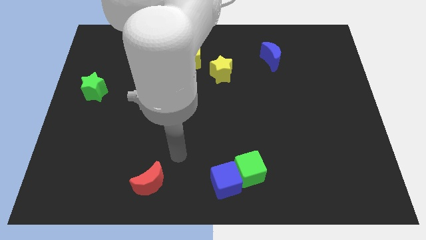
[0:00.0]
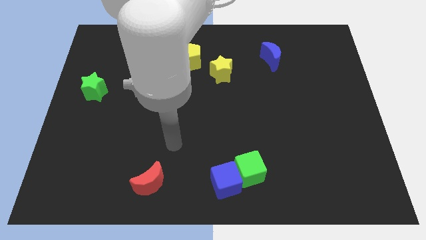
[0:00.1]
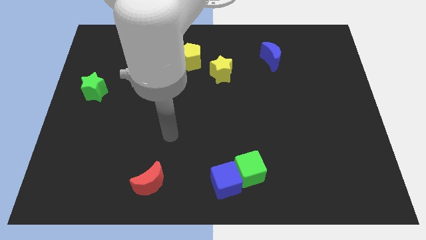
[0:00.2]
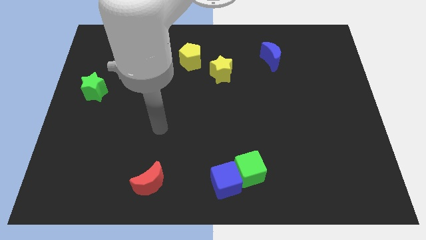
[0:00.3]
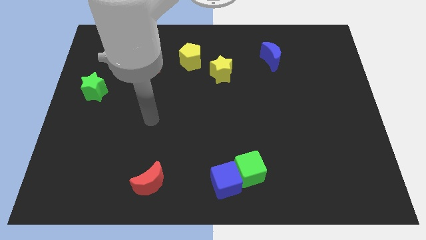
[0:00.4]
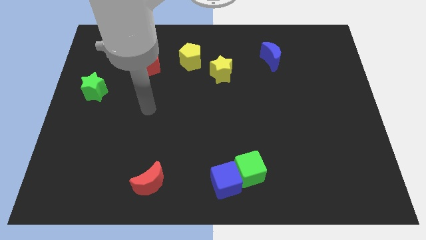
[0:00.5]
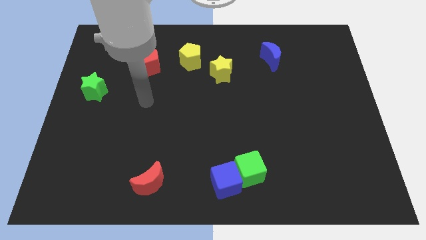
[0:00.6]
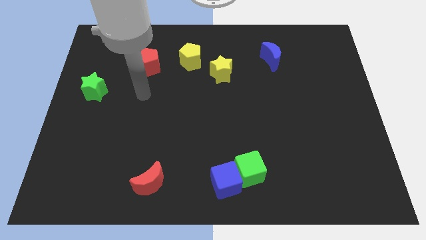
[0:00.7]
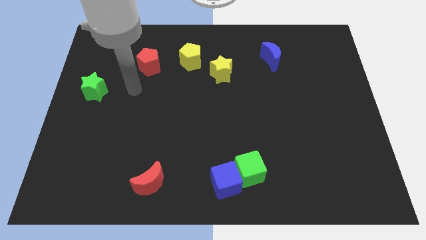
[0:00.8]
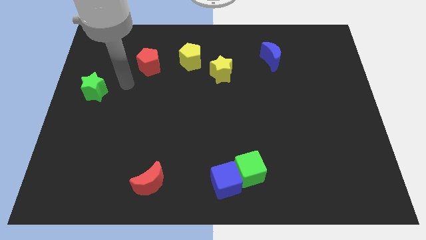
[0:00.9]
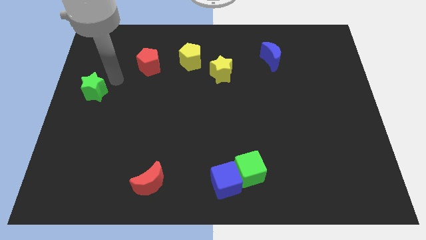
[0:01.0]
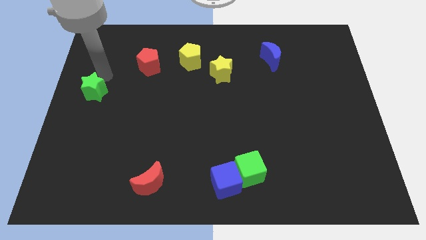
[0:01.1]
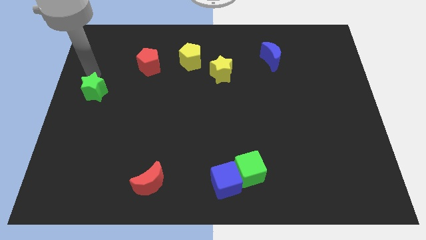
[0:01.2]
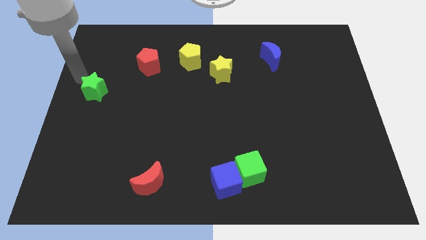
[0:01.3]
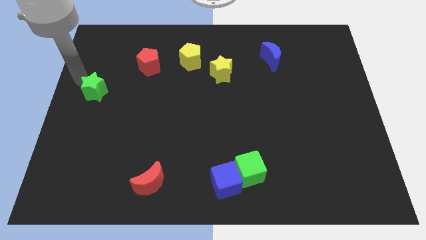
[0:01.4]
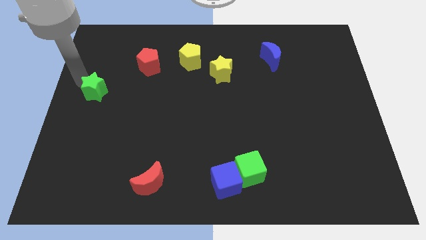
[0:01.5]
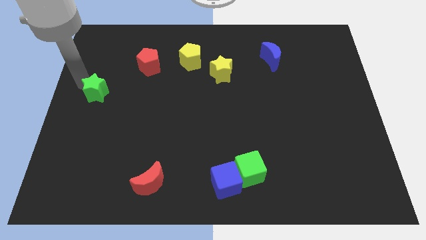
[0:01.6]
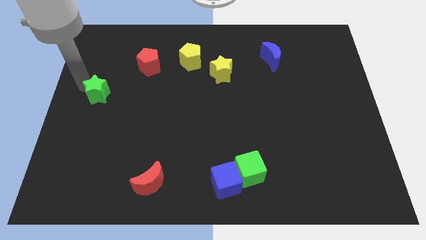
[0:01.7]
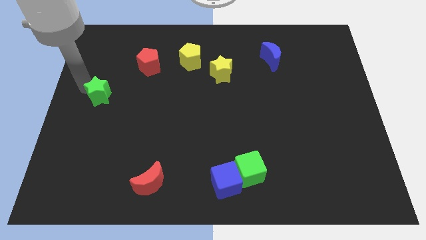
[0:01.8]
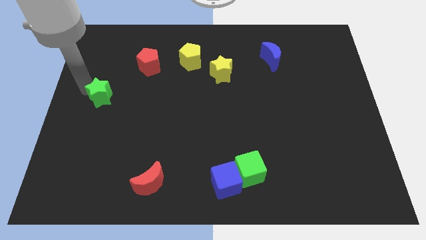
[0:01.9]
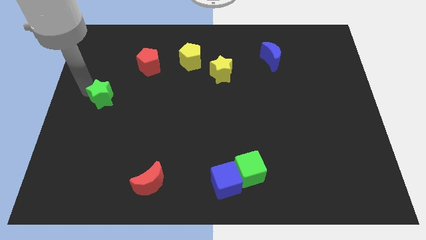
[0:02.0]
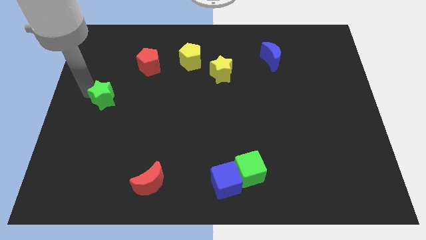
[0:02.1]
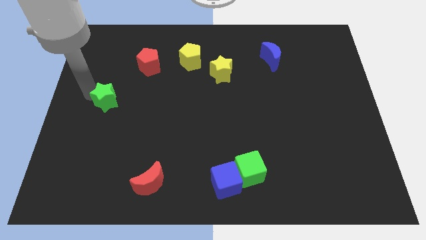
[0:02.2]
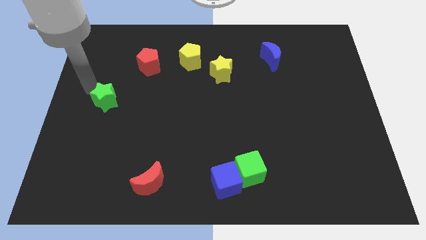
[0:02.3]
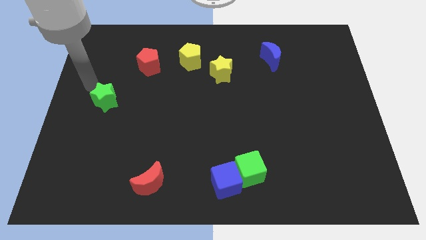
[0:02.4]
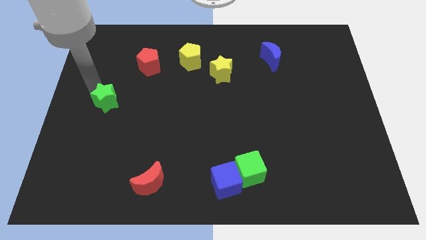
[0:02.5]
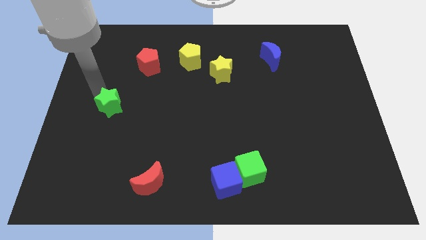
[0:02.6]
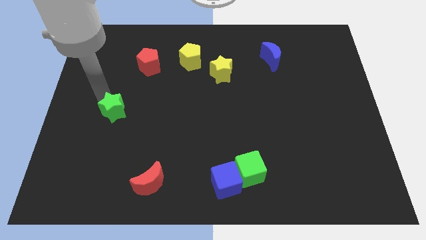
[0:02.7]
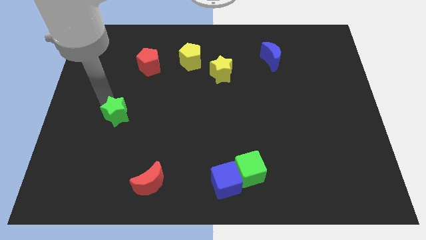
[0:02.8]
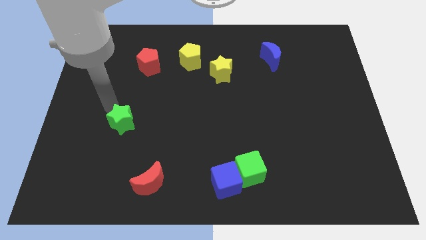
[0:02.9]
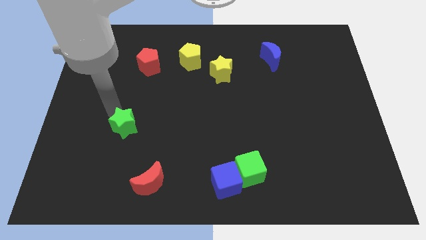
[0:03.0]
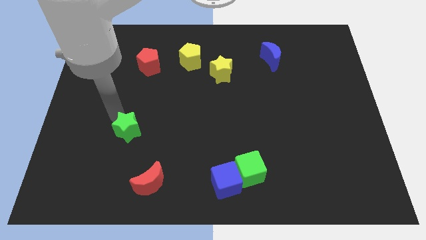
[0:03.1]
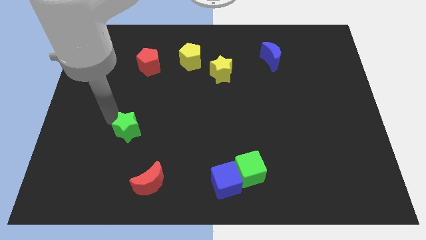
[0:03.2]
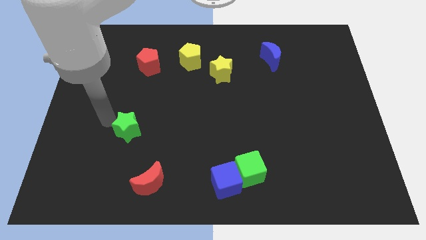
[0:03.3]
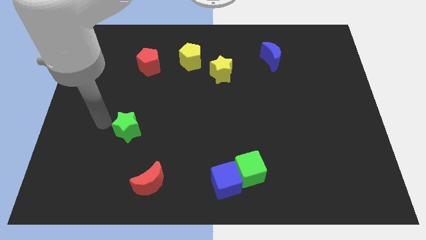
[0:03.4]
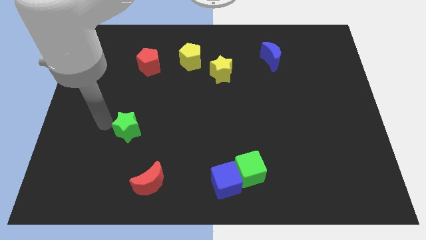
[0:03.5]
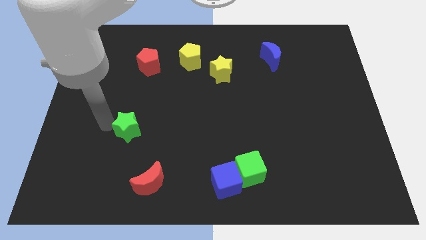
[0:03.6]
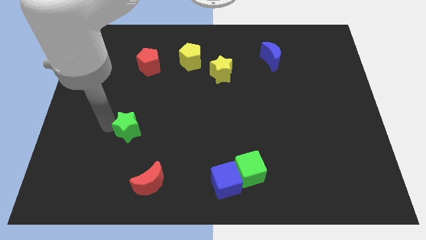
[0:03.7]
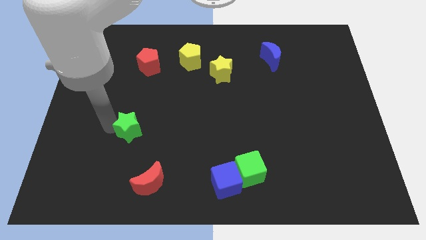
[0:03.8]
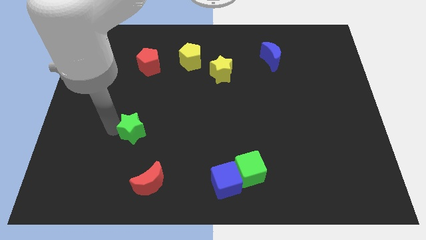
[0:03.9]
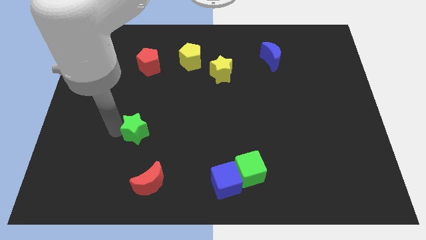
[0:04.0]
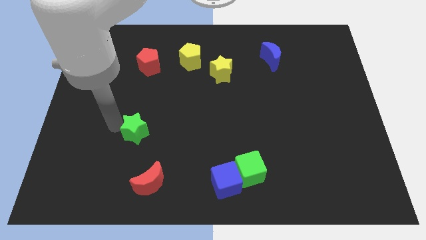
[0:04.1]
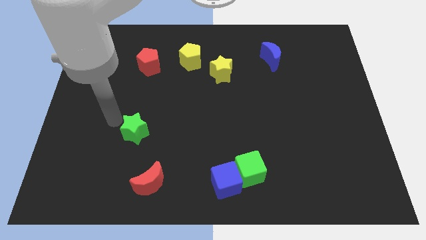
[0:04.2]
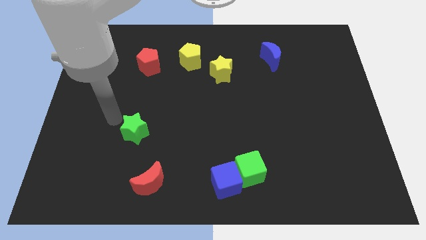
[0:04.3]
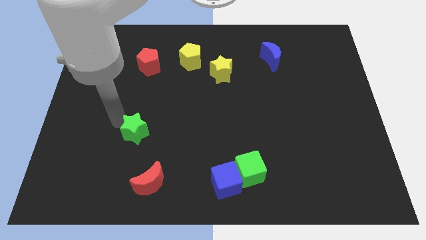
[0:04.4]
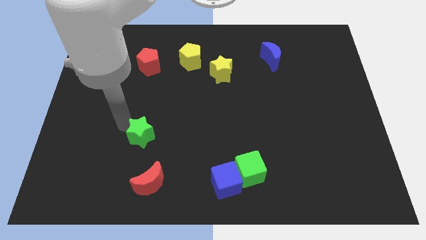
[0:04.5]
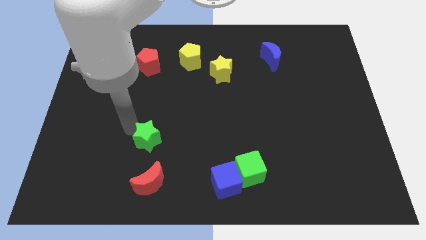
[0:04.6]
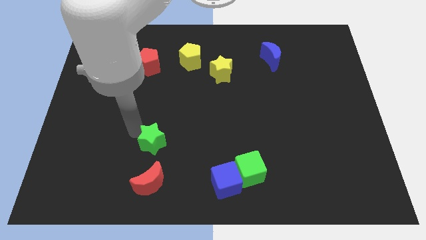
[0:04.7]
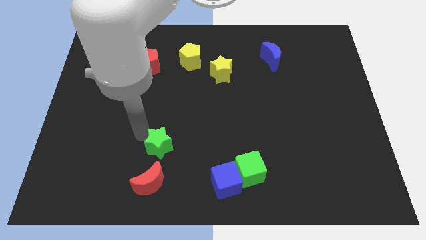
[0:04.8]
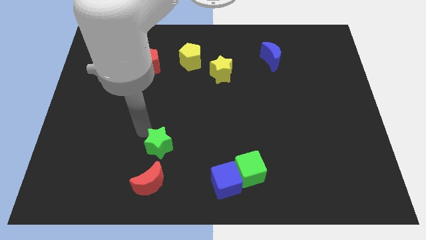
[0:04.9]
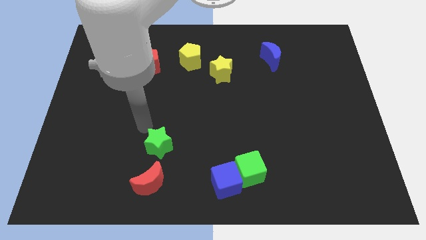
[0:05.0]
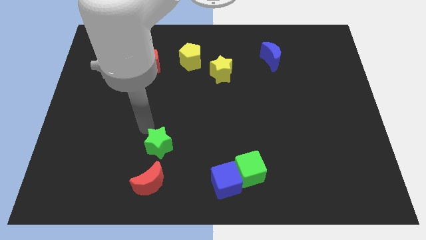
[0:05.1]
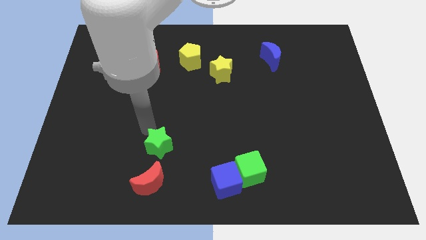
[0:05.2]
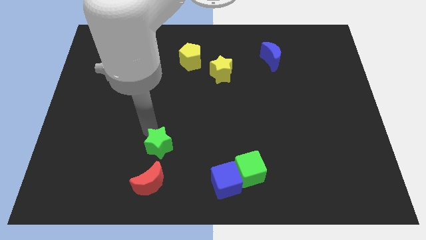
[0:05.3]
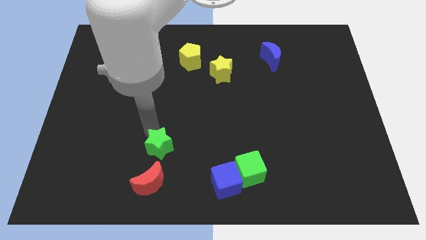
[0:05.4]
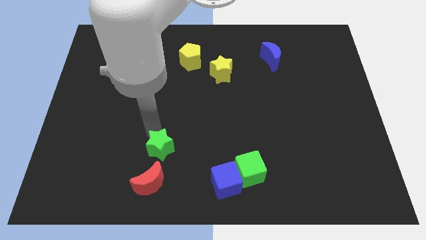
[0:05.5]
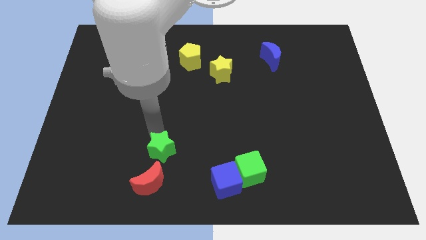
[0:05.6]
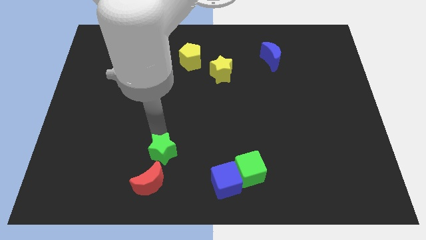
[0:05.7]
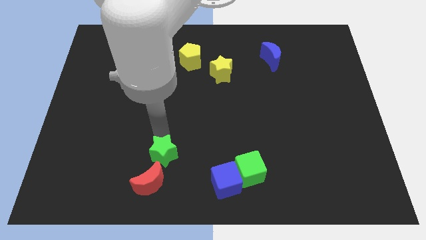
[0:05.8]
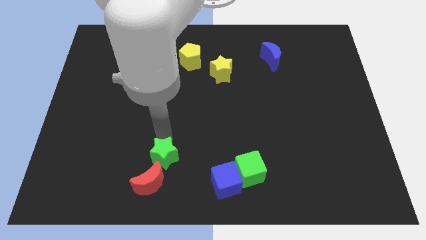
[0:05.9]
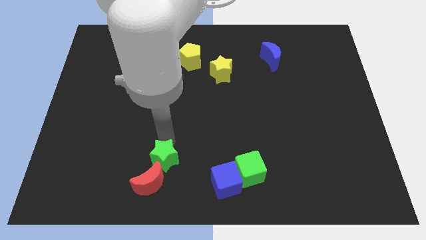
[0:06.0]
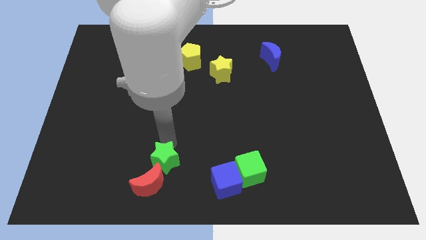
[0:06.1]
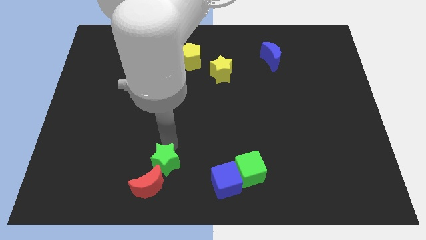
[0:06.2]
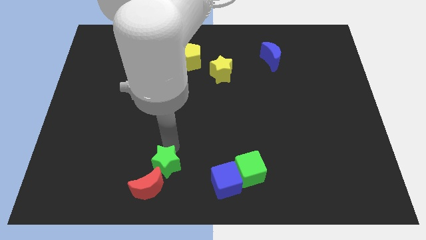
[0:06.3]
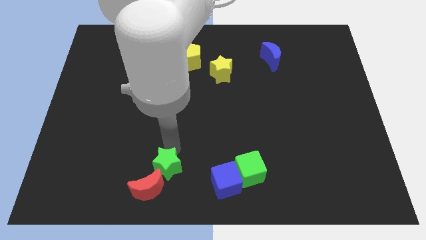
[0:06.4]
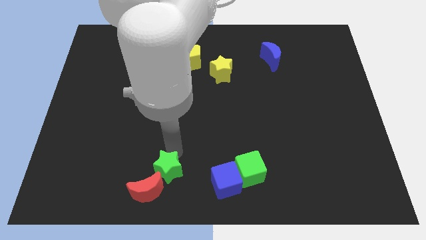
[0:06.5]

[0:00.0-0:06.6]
move the green star to the bottom side
